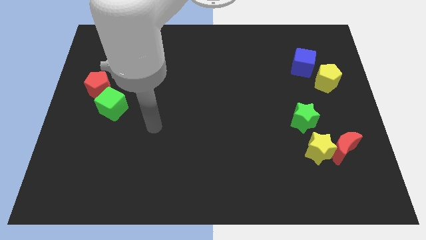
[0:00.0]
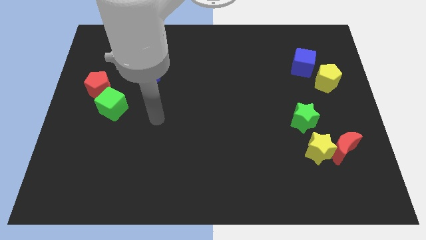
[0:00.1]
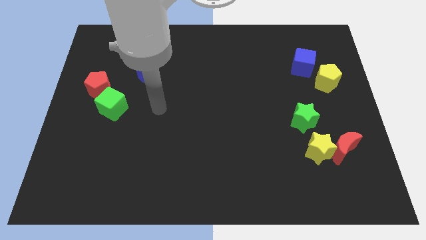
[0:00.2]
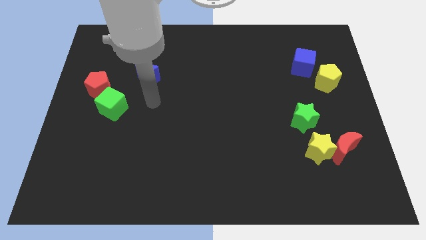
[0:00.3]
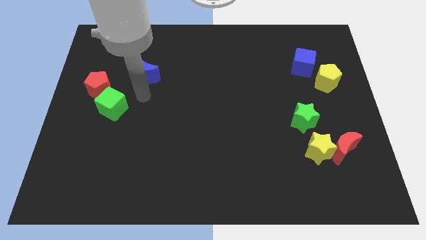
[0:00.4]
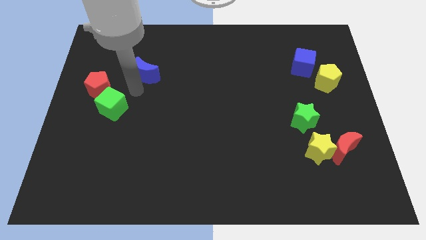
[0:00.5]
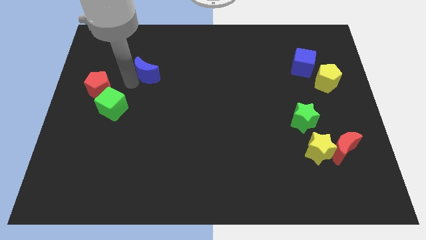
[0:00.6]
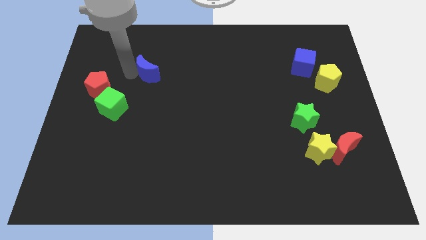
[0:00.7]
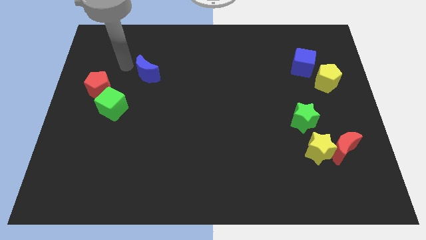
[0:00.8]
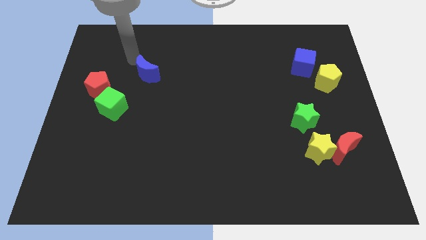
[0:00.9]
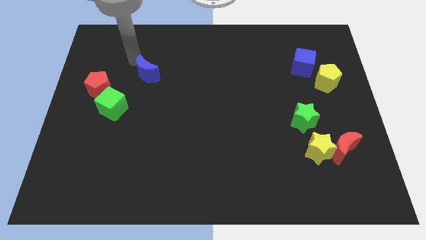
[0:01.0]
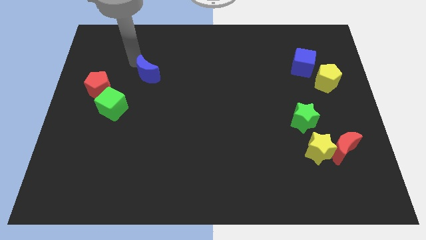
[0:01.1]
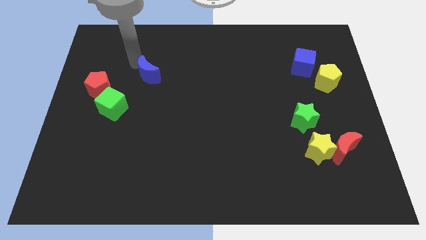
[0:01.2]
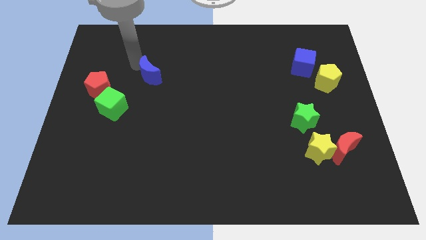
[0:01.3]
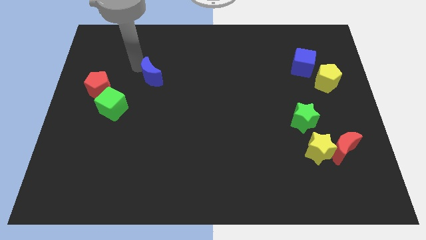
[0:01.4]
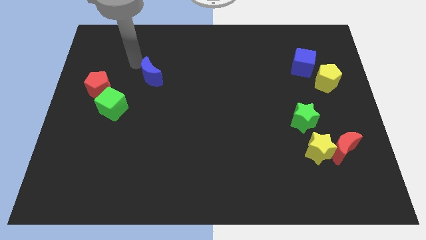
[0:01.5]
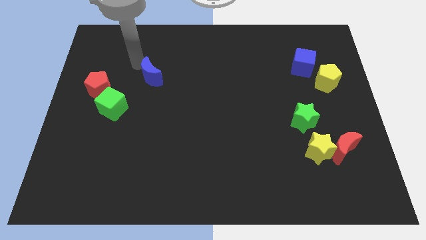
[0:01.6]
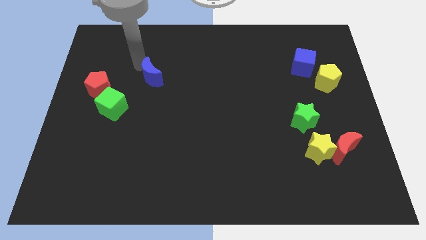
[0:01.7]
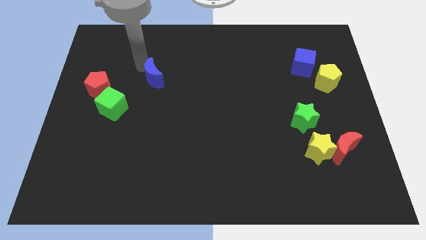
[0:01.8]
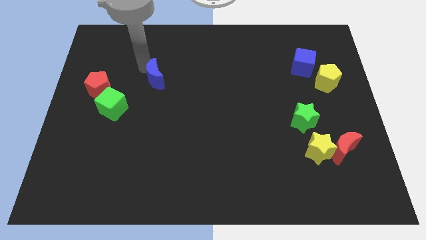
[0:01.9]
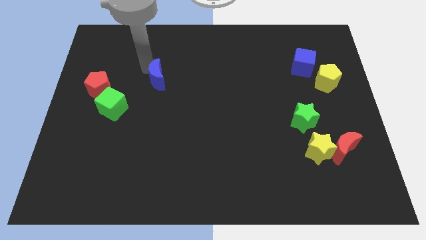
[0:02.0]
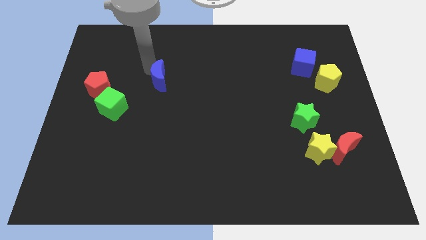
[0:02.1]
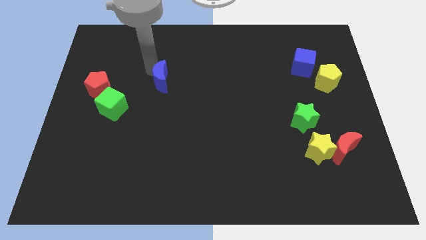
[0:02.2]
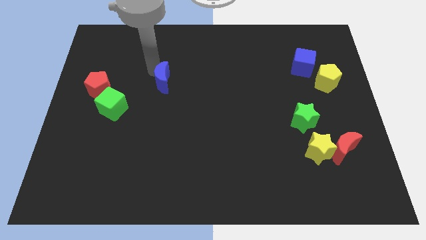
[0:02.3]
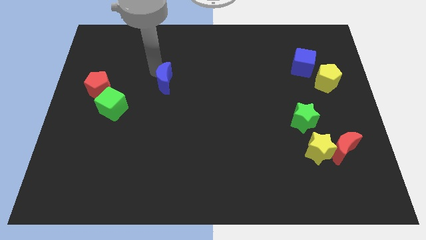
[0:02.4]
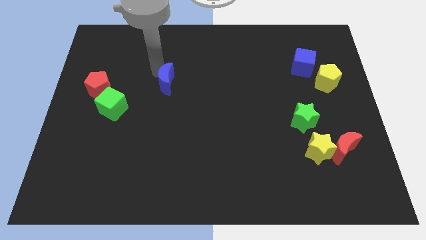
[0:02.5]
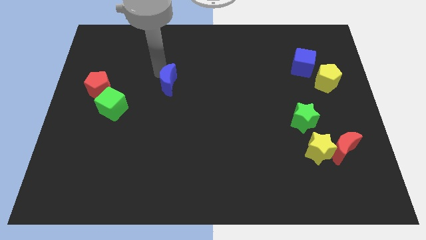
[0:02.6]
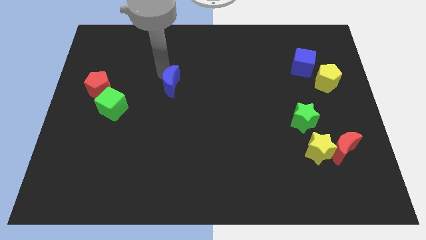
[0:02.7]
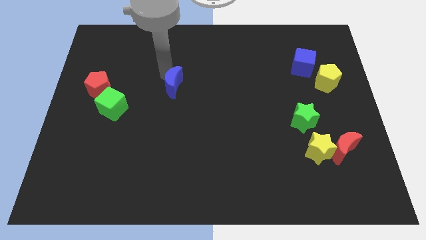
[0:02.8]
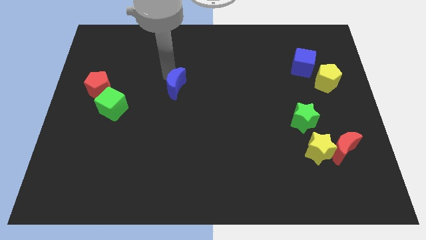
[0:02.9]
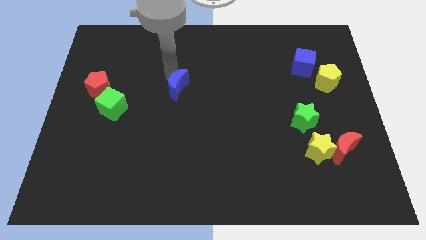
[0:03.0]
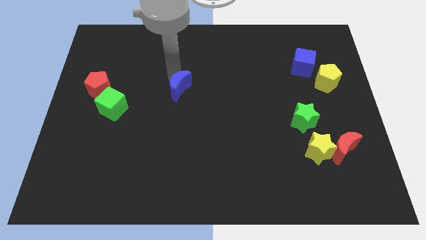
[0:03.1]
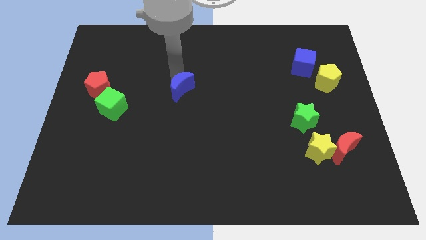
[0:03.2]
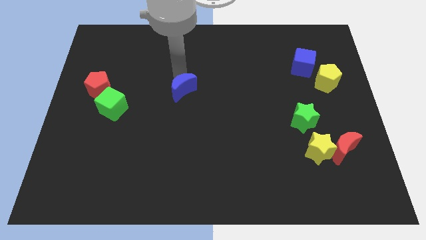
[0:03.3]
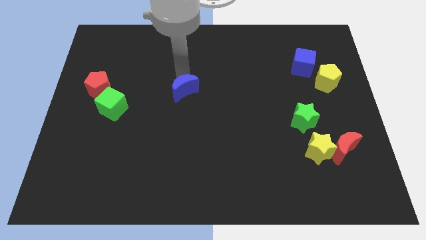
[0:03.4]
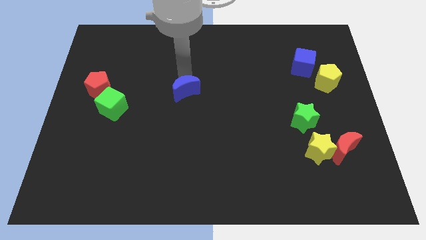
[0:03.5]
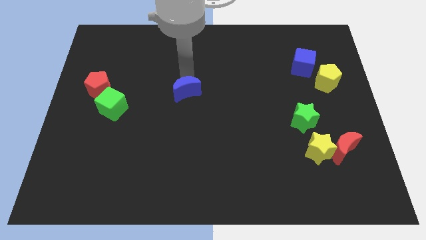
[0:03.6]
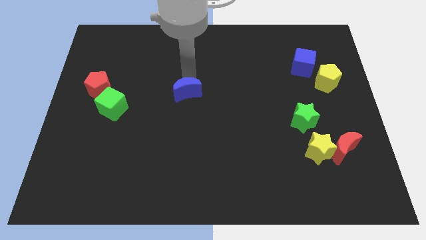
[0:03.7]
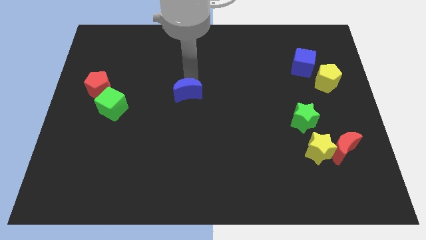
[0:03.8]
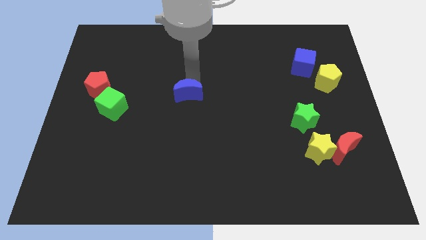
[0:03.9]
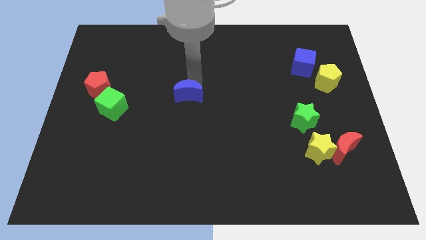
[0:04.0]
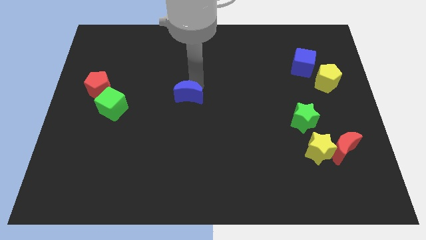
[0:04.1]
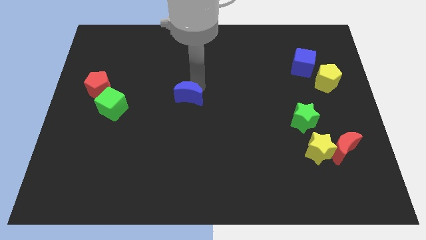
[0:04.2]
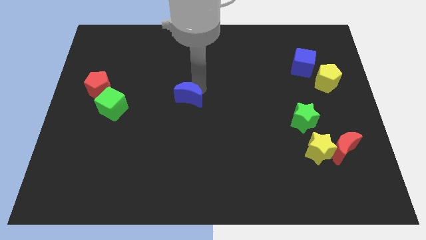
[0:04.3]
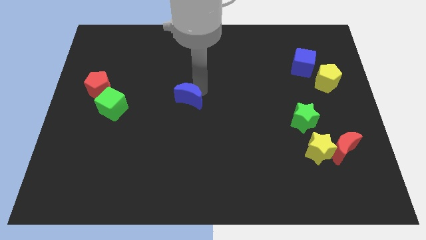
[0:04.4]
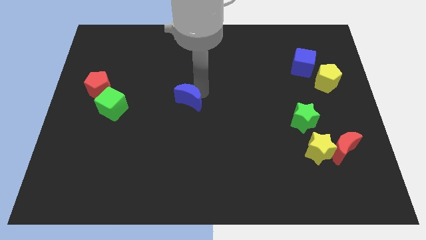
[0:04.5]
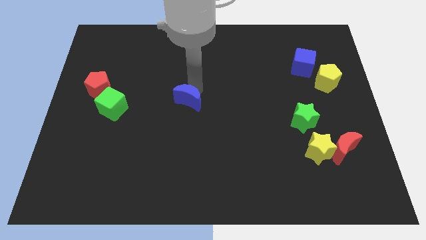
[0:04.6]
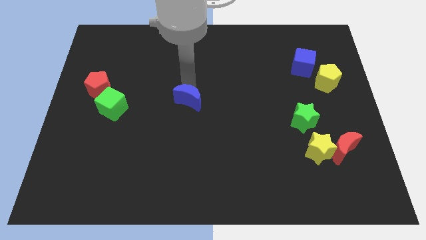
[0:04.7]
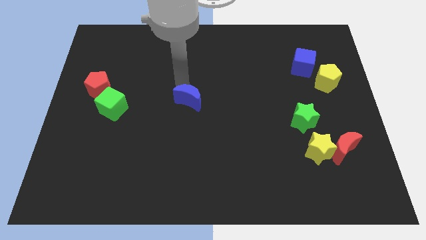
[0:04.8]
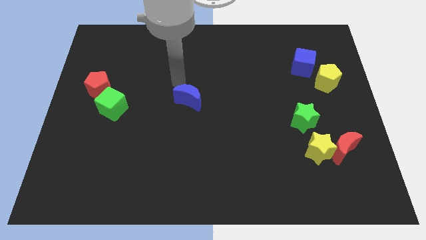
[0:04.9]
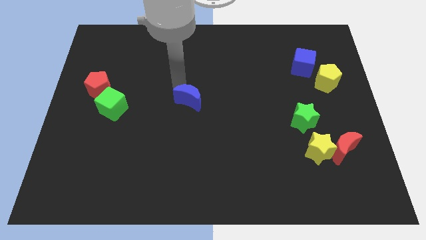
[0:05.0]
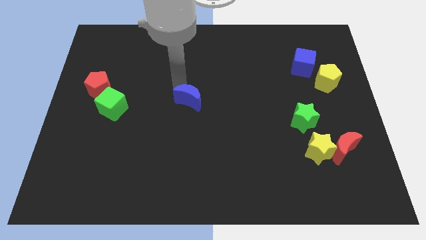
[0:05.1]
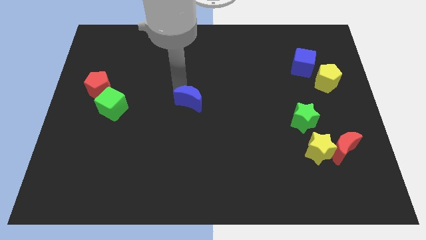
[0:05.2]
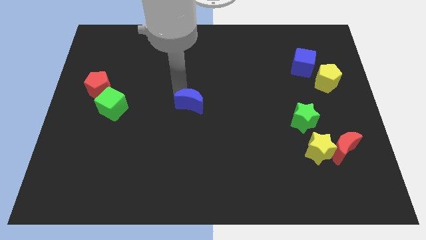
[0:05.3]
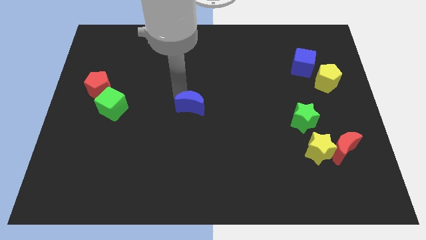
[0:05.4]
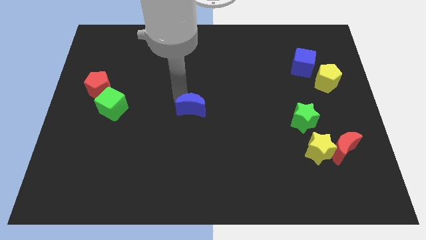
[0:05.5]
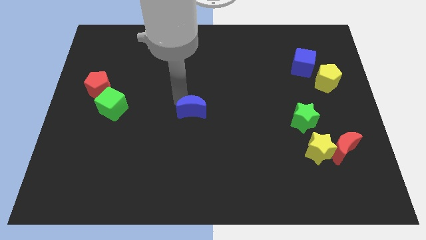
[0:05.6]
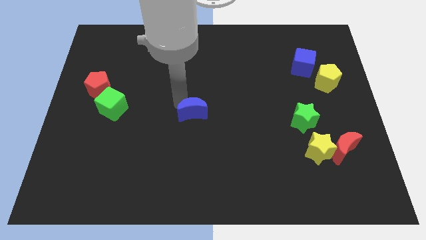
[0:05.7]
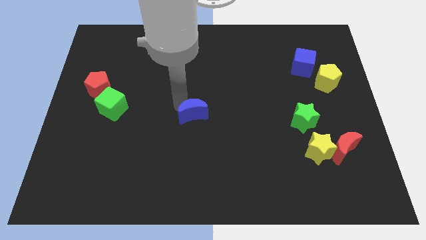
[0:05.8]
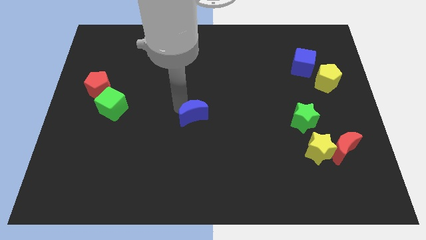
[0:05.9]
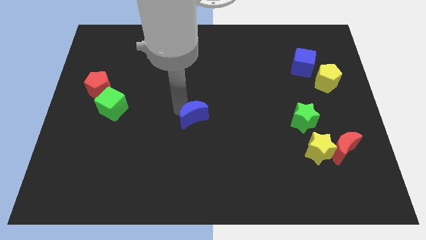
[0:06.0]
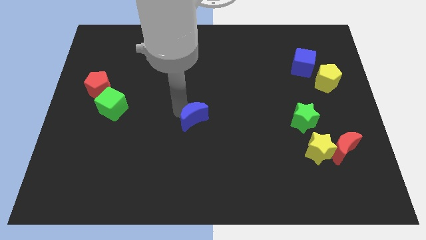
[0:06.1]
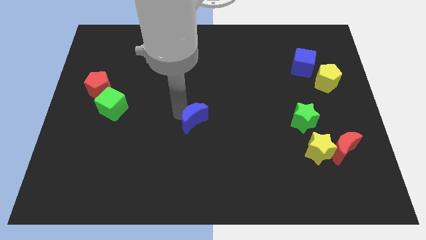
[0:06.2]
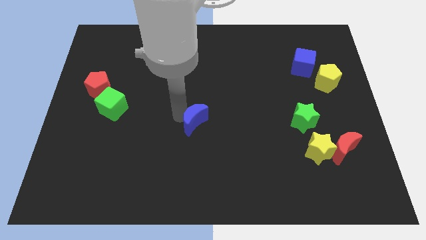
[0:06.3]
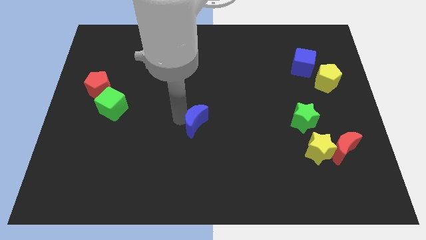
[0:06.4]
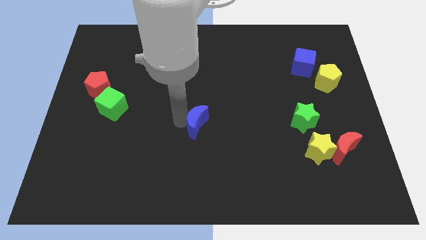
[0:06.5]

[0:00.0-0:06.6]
slide the blue moon diagonally downwards and to the right

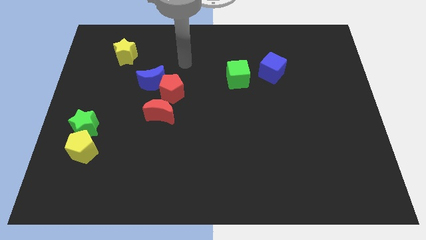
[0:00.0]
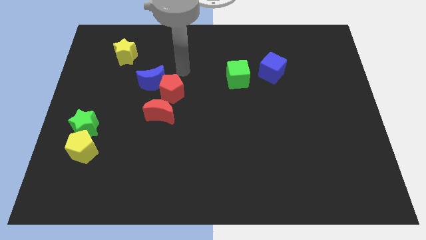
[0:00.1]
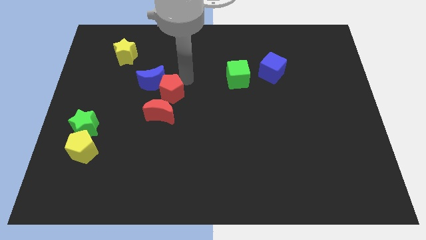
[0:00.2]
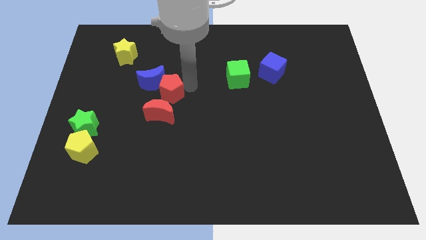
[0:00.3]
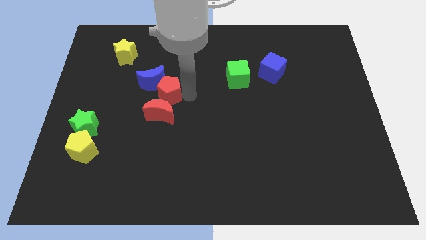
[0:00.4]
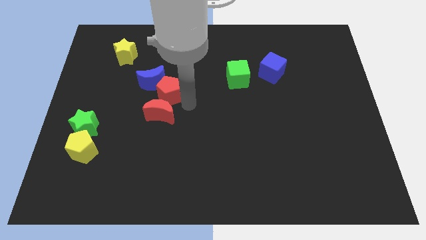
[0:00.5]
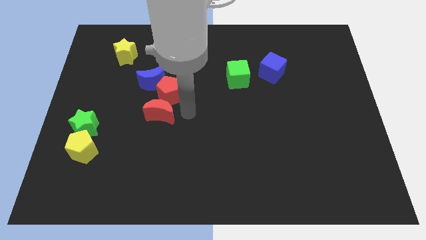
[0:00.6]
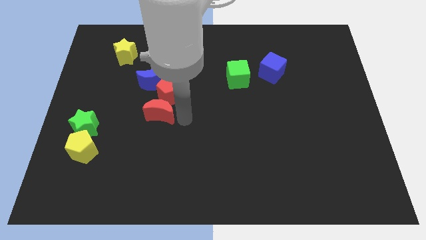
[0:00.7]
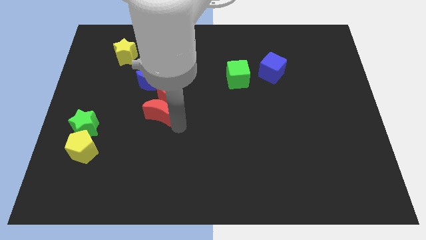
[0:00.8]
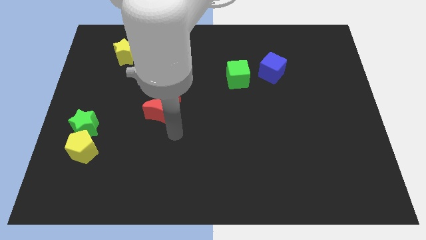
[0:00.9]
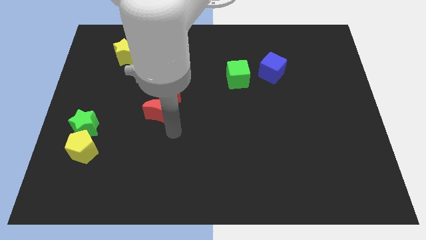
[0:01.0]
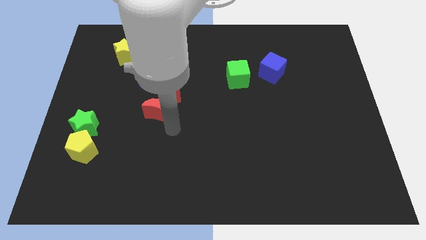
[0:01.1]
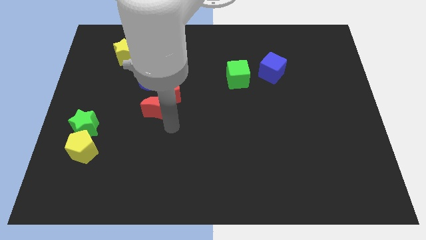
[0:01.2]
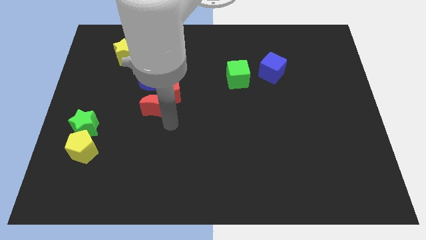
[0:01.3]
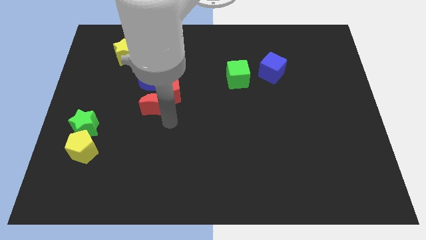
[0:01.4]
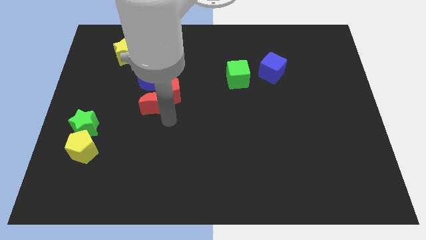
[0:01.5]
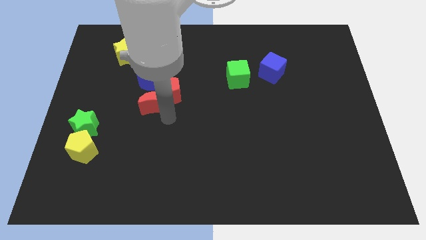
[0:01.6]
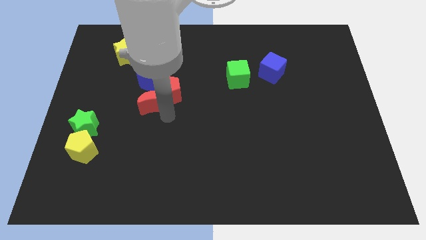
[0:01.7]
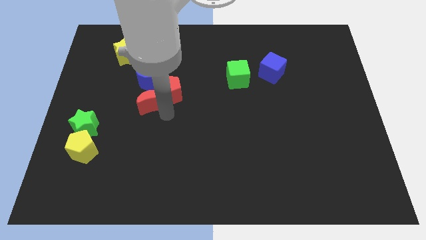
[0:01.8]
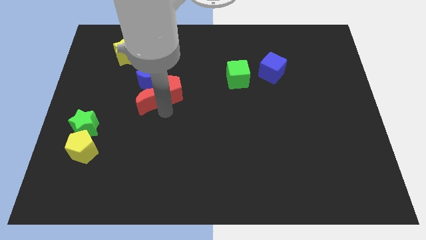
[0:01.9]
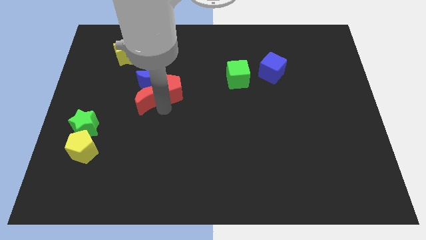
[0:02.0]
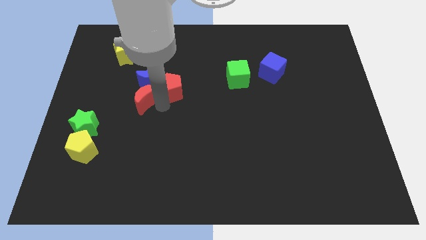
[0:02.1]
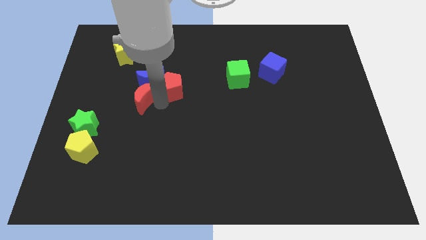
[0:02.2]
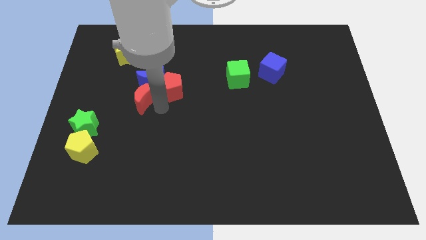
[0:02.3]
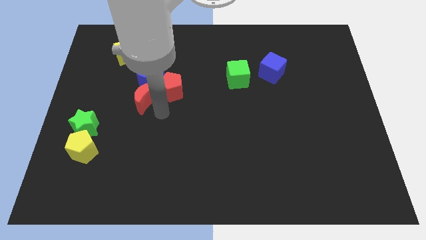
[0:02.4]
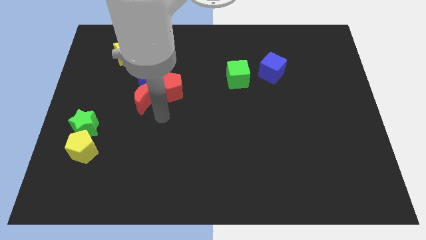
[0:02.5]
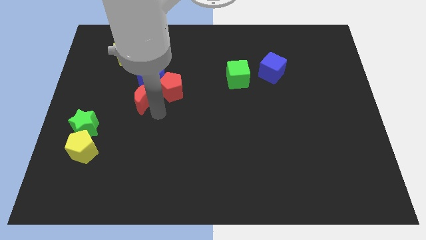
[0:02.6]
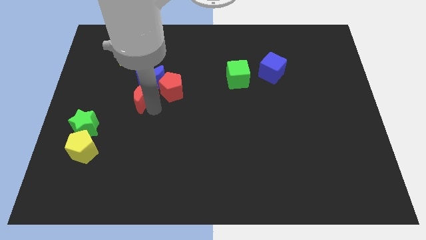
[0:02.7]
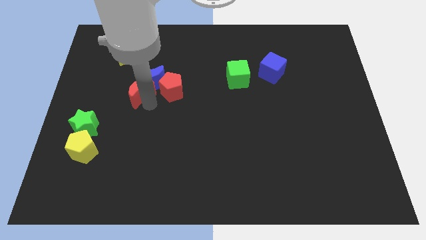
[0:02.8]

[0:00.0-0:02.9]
push the red moon up and then left a little
